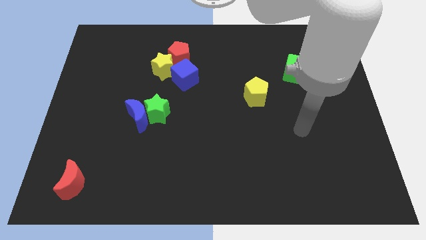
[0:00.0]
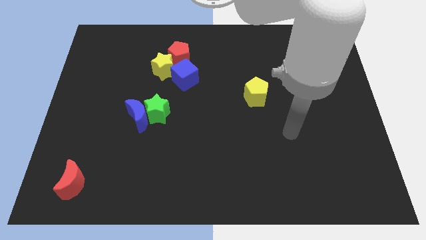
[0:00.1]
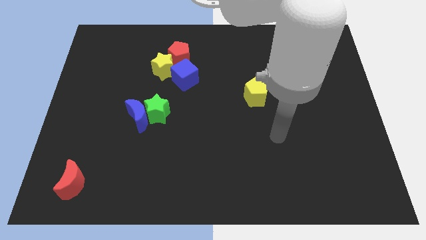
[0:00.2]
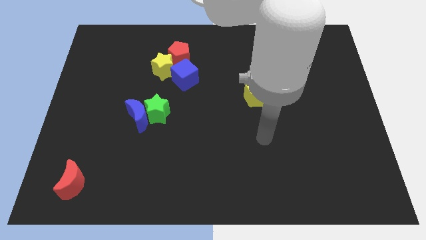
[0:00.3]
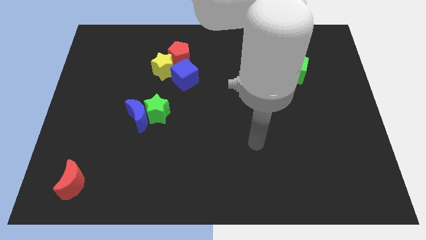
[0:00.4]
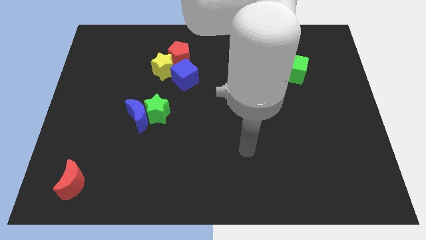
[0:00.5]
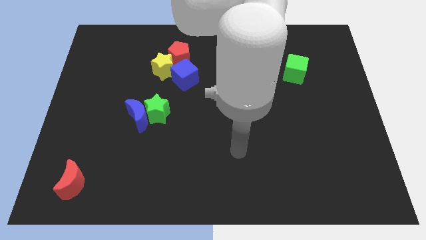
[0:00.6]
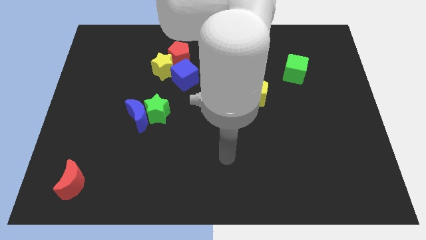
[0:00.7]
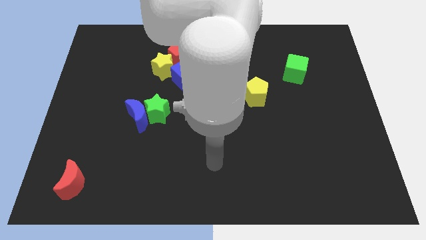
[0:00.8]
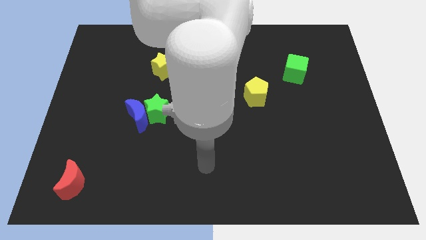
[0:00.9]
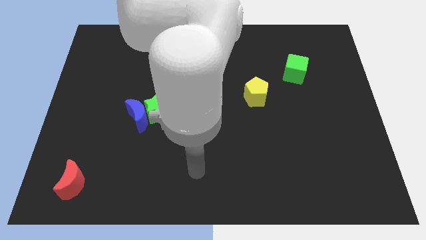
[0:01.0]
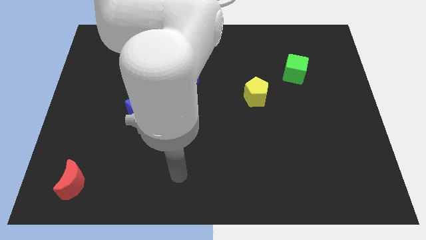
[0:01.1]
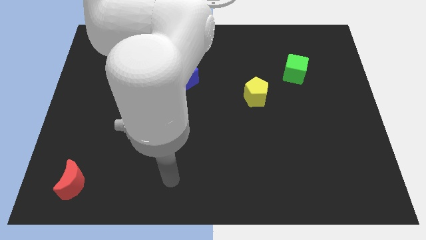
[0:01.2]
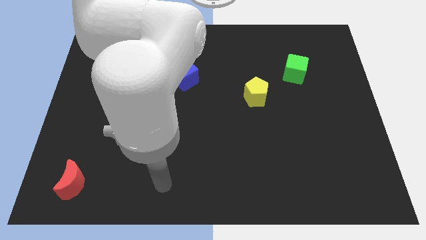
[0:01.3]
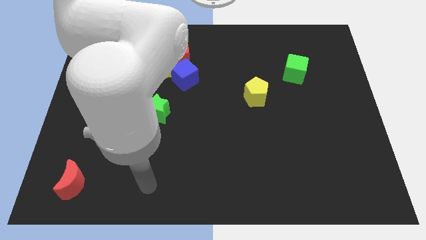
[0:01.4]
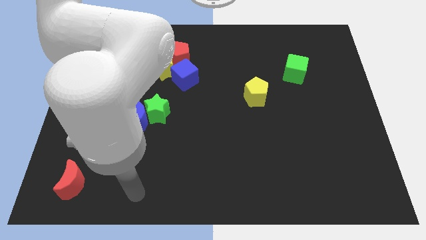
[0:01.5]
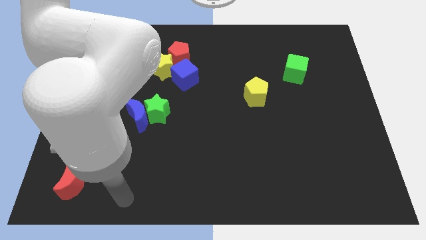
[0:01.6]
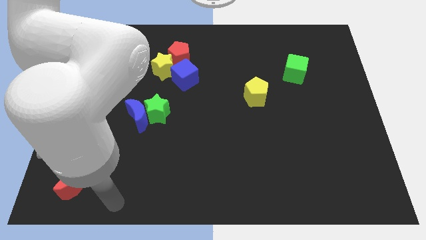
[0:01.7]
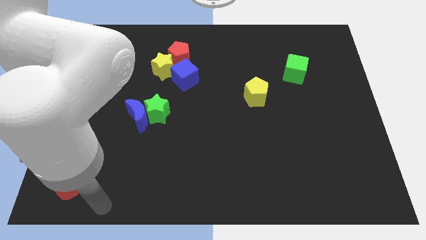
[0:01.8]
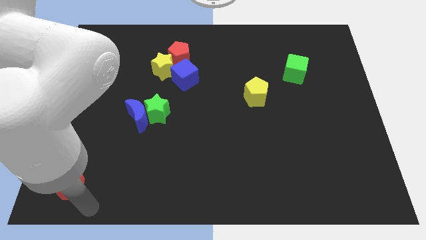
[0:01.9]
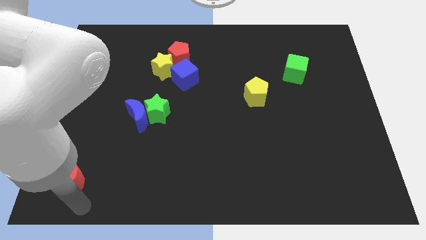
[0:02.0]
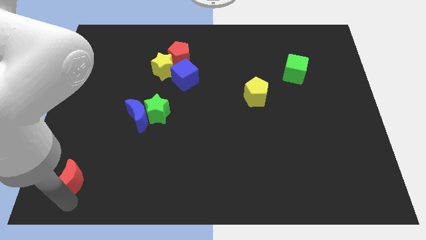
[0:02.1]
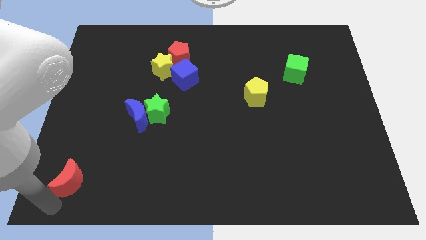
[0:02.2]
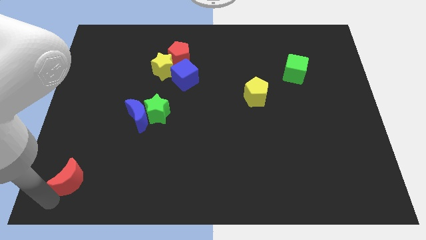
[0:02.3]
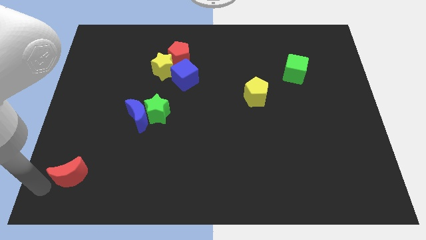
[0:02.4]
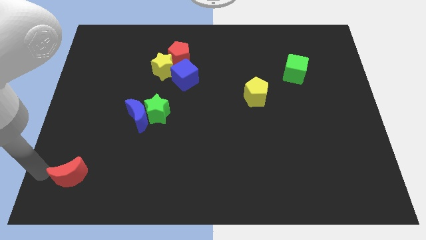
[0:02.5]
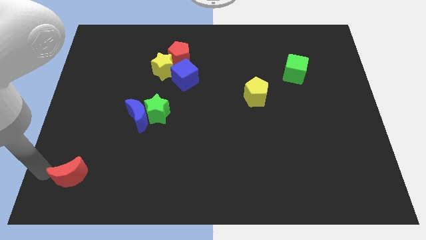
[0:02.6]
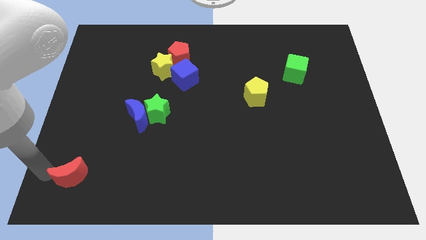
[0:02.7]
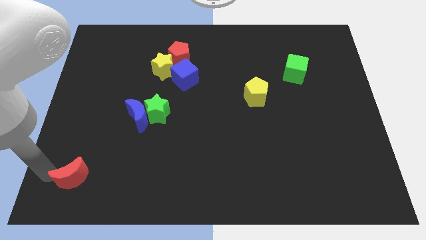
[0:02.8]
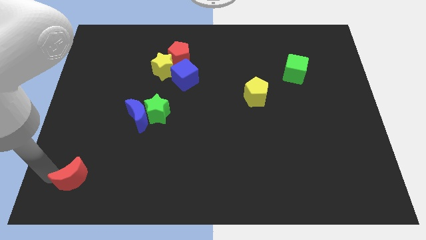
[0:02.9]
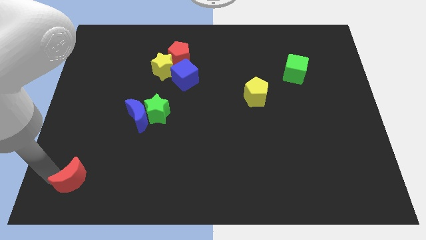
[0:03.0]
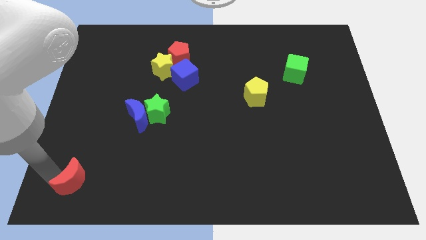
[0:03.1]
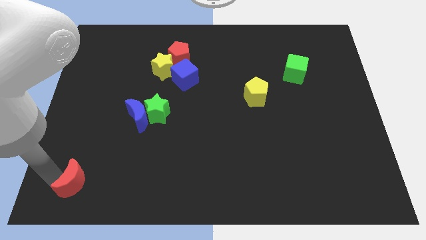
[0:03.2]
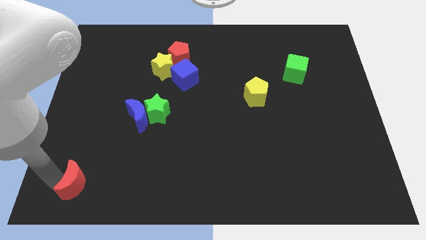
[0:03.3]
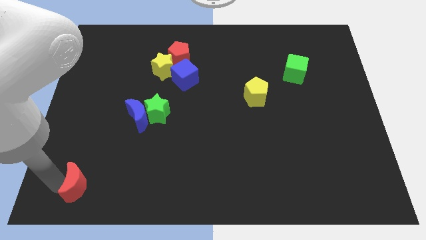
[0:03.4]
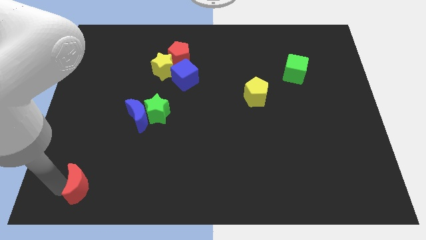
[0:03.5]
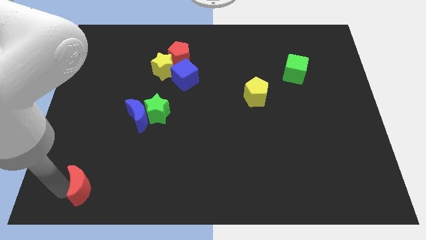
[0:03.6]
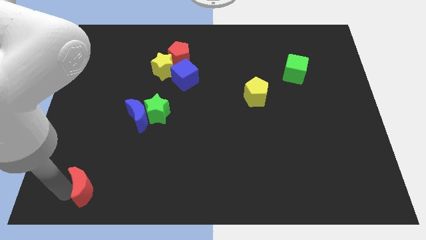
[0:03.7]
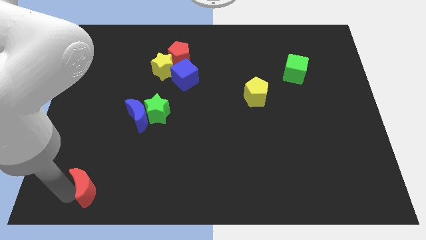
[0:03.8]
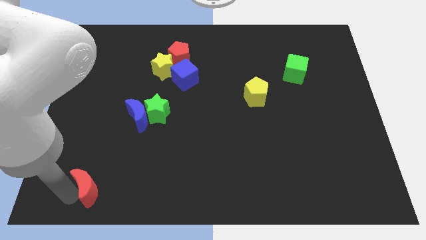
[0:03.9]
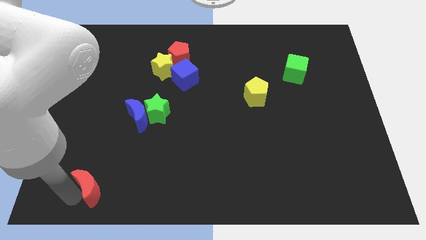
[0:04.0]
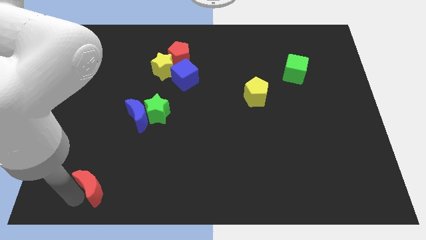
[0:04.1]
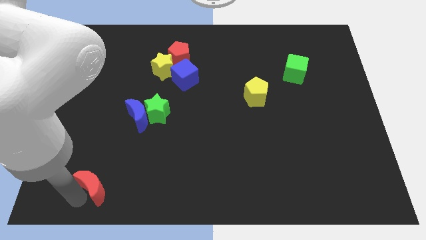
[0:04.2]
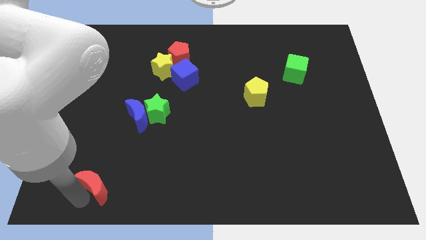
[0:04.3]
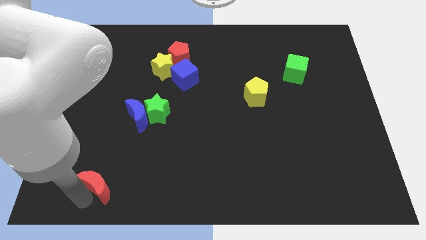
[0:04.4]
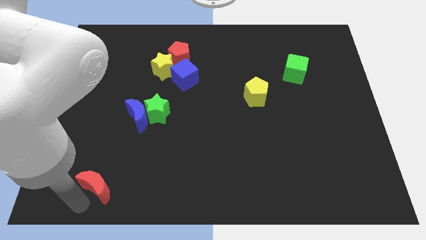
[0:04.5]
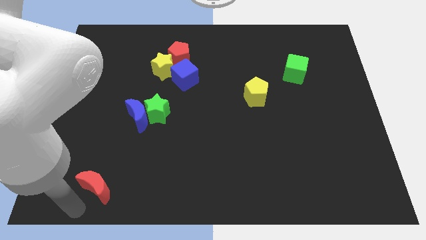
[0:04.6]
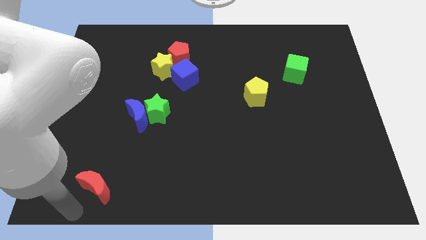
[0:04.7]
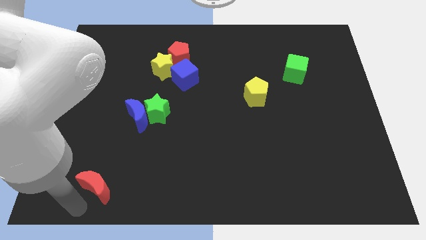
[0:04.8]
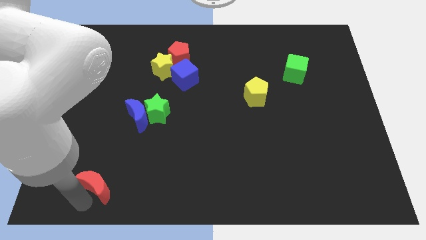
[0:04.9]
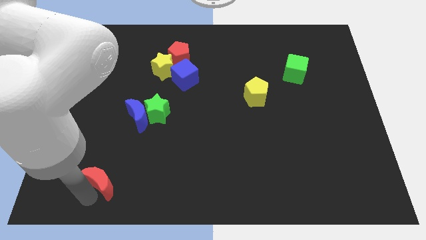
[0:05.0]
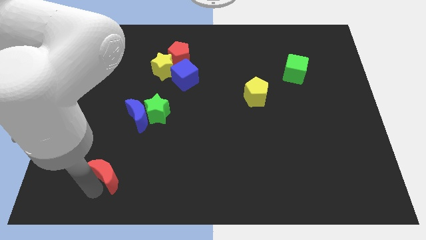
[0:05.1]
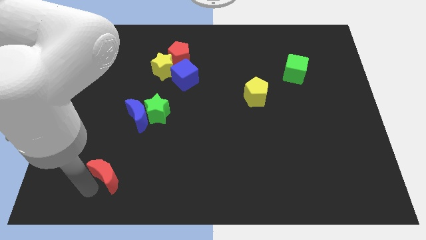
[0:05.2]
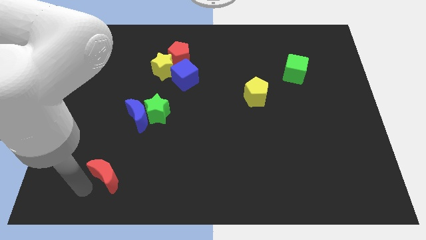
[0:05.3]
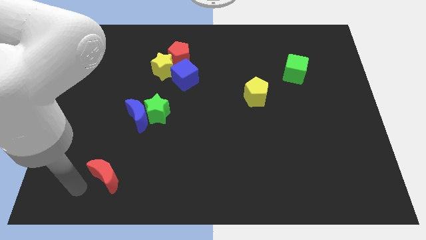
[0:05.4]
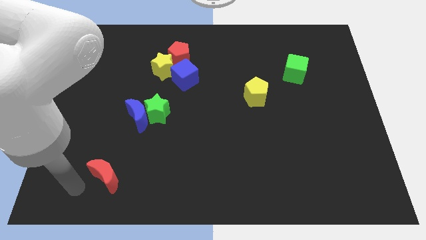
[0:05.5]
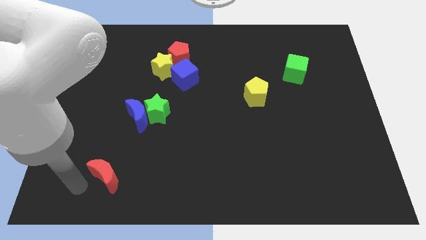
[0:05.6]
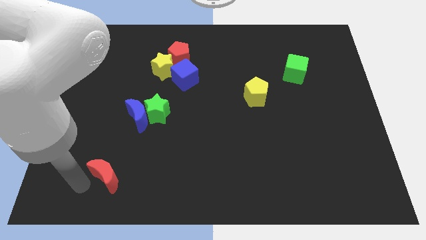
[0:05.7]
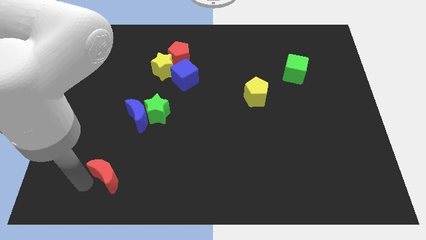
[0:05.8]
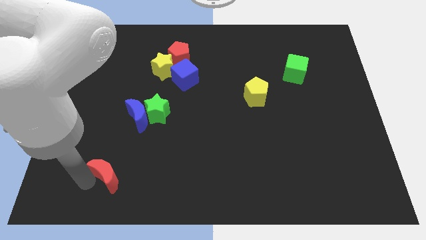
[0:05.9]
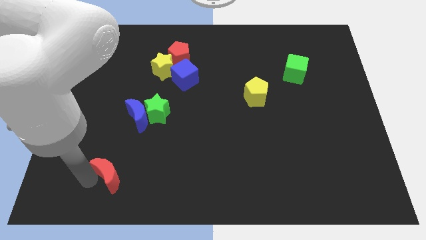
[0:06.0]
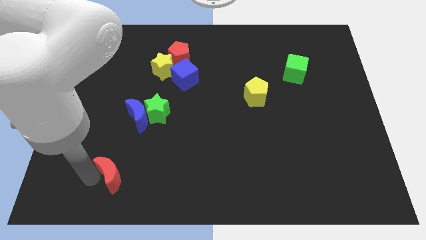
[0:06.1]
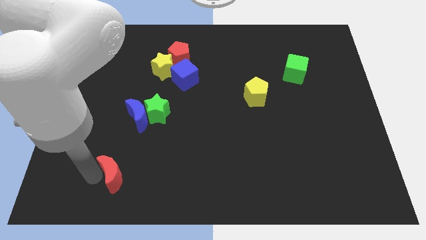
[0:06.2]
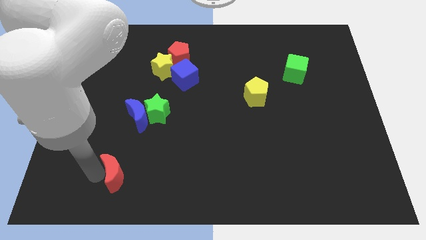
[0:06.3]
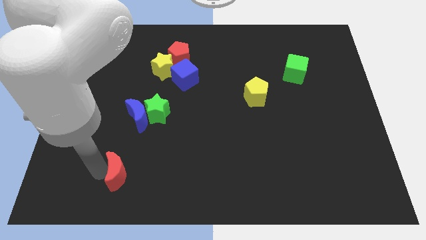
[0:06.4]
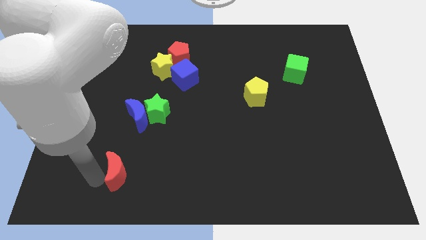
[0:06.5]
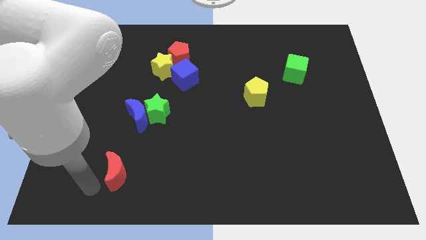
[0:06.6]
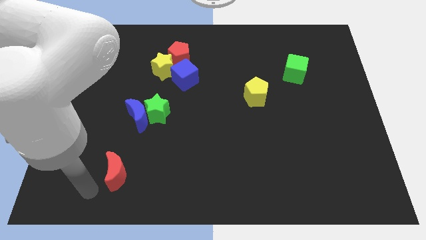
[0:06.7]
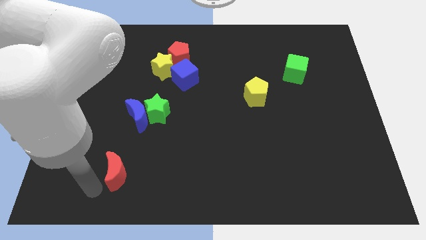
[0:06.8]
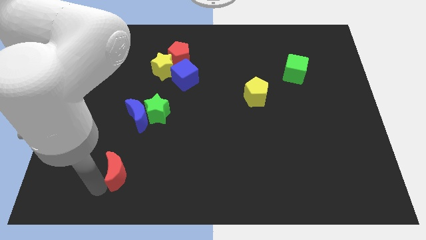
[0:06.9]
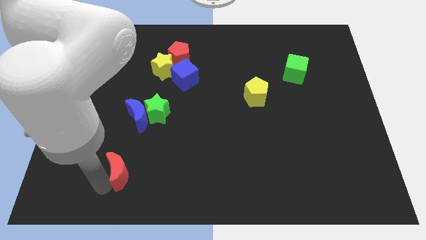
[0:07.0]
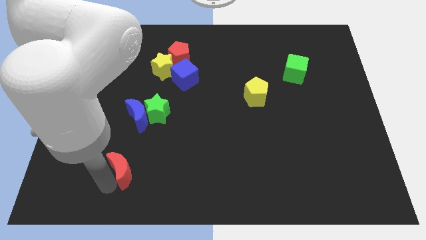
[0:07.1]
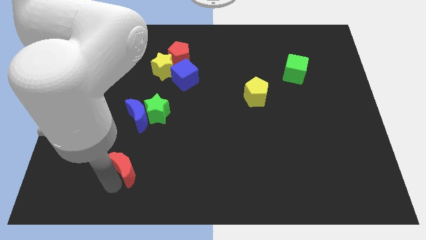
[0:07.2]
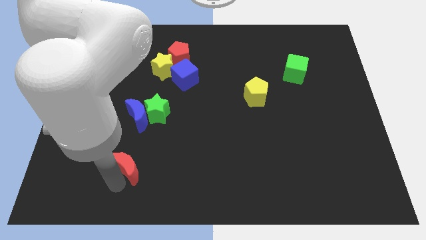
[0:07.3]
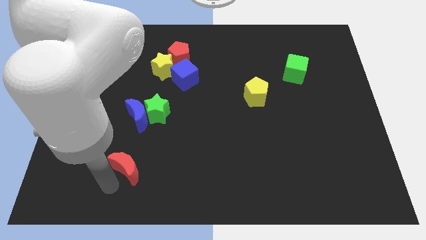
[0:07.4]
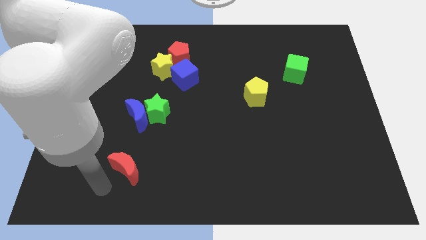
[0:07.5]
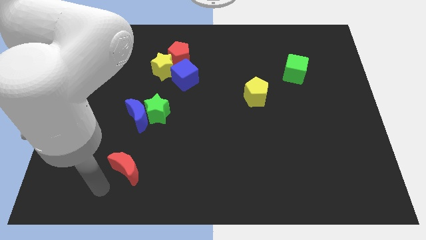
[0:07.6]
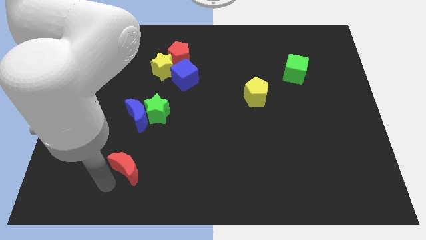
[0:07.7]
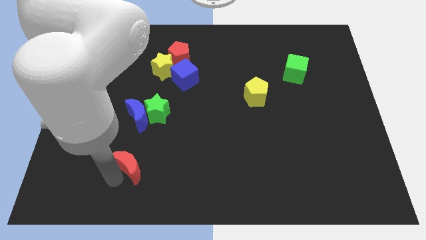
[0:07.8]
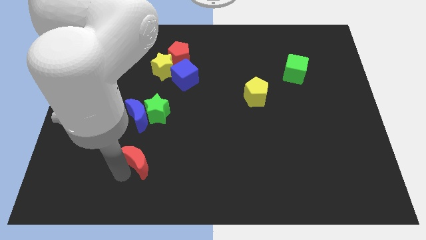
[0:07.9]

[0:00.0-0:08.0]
put the red moon to the bottom of the green star

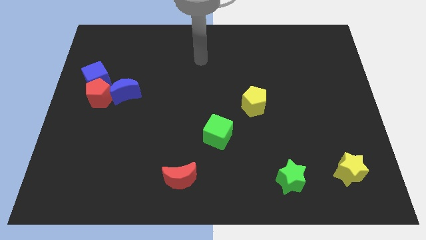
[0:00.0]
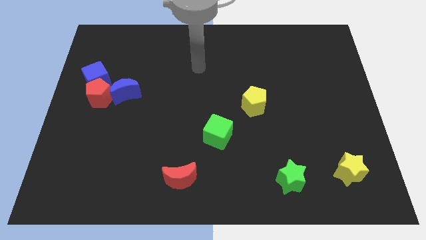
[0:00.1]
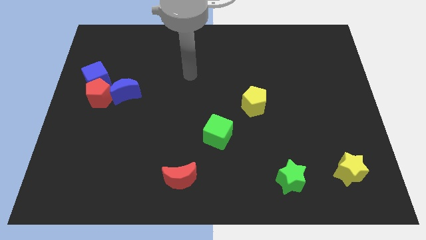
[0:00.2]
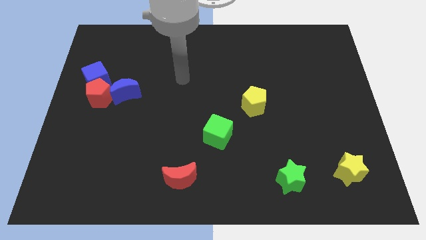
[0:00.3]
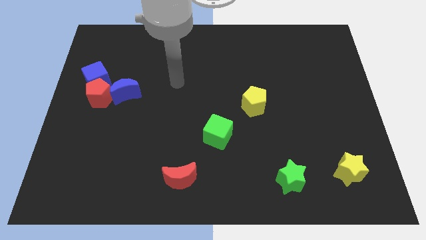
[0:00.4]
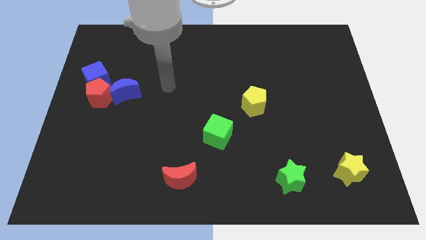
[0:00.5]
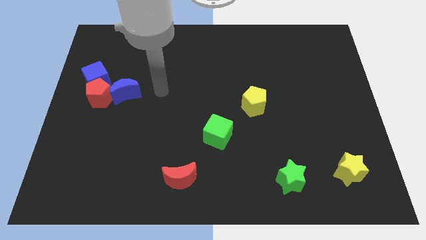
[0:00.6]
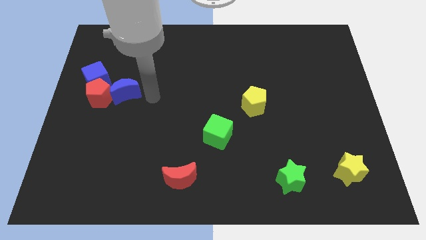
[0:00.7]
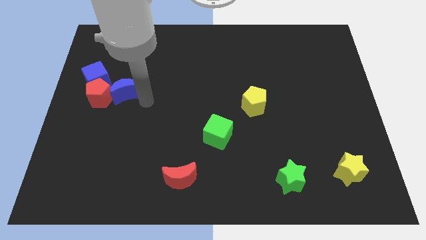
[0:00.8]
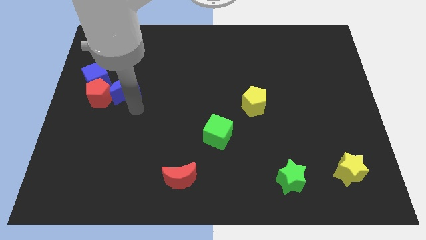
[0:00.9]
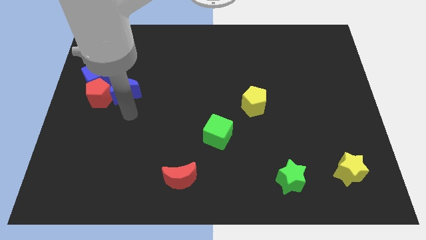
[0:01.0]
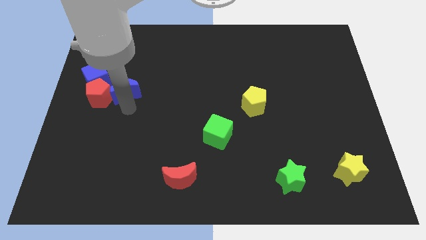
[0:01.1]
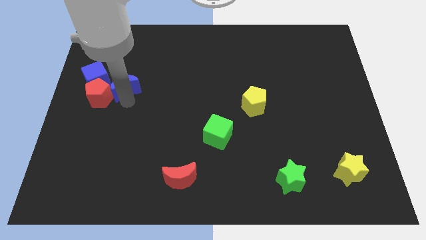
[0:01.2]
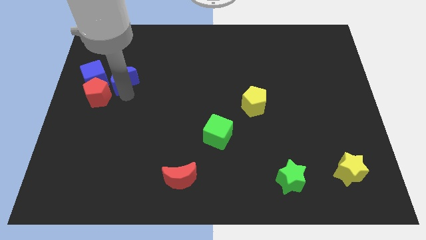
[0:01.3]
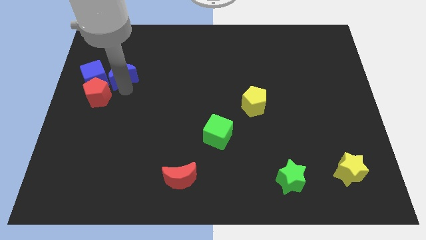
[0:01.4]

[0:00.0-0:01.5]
push the blue moon diagonally up and to the right of the blue cube
